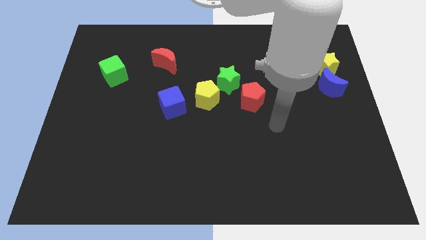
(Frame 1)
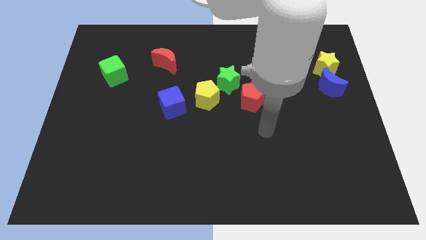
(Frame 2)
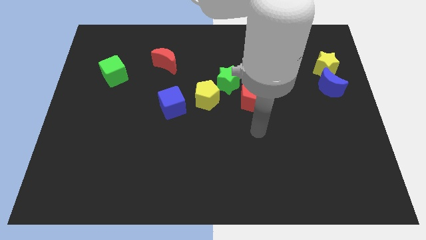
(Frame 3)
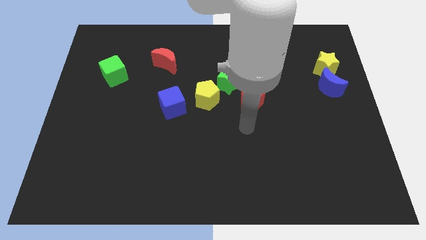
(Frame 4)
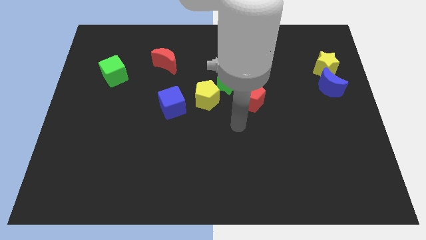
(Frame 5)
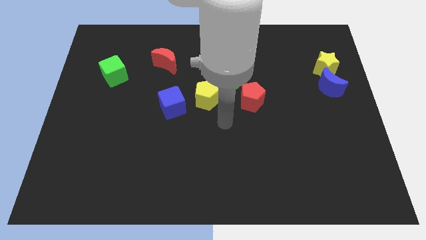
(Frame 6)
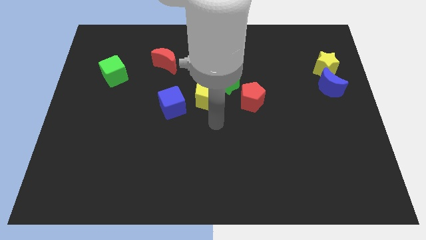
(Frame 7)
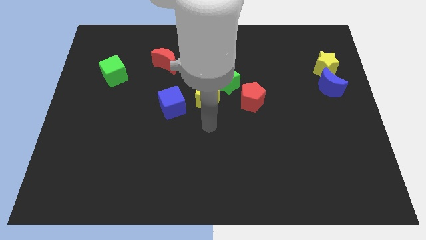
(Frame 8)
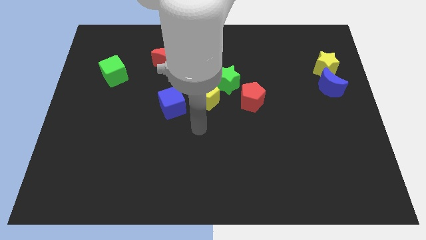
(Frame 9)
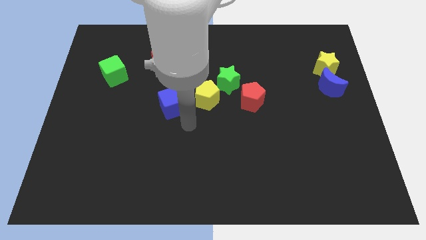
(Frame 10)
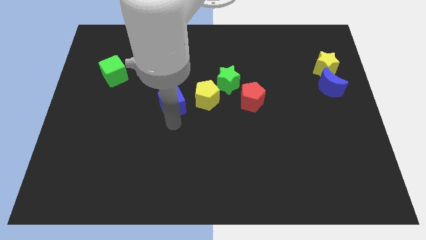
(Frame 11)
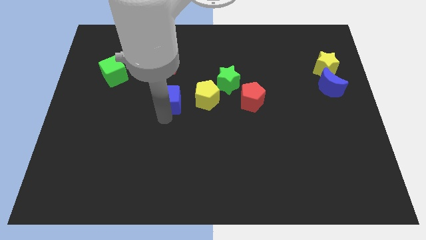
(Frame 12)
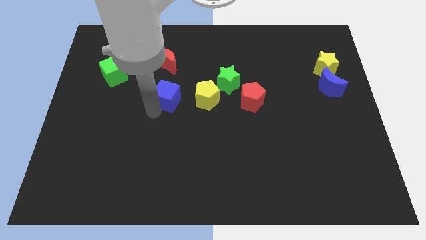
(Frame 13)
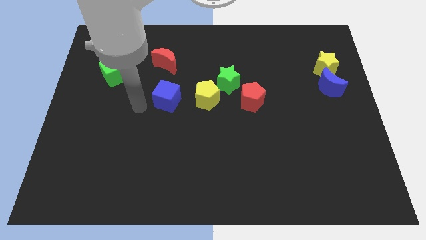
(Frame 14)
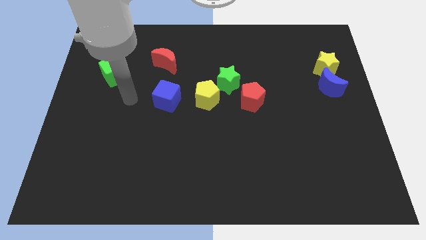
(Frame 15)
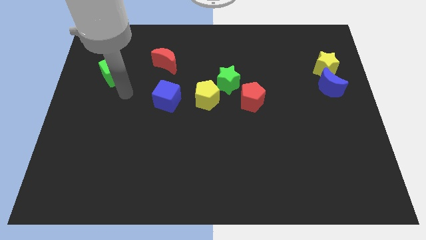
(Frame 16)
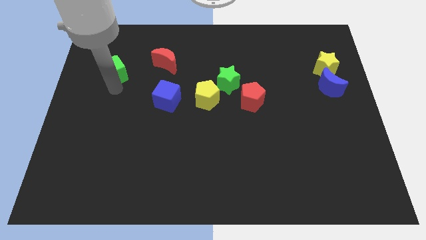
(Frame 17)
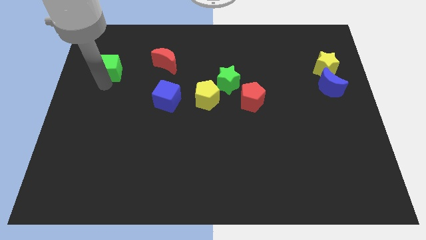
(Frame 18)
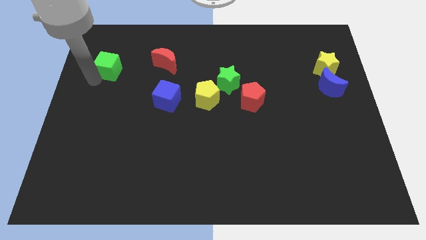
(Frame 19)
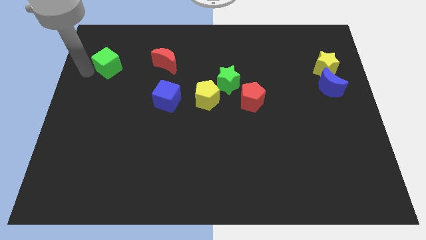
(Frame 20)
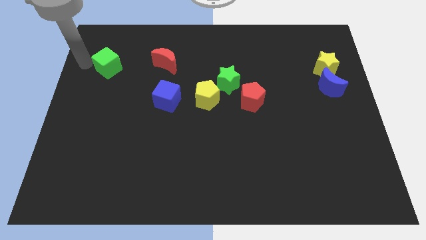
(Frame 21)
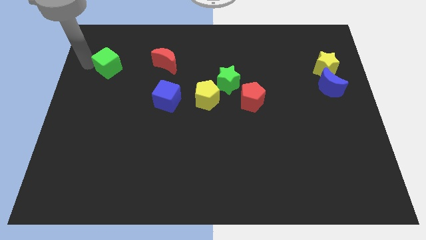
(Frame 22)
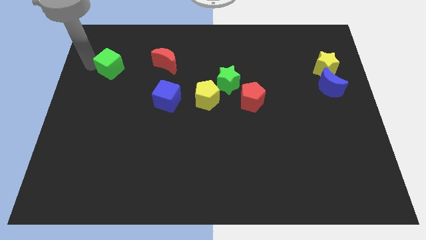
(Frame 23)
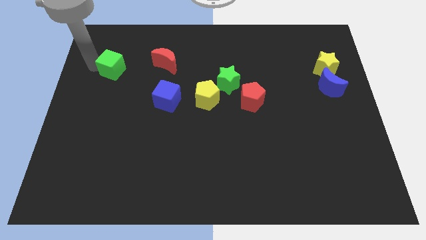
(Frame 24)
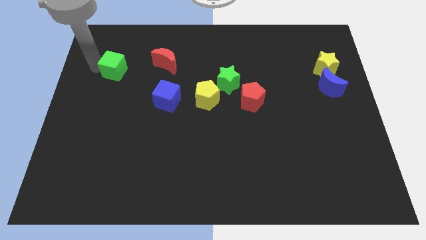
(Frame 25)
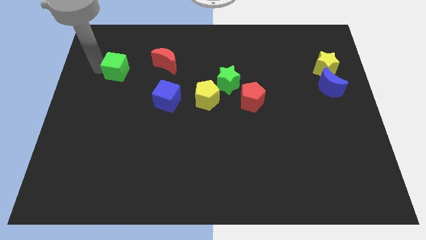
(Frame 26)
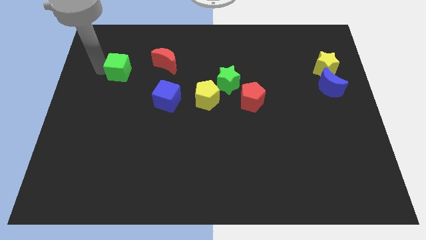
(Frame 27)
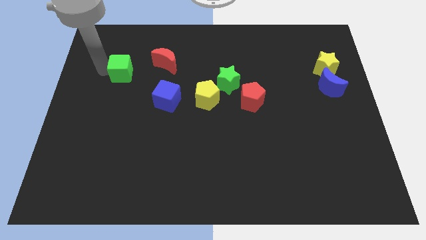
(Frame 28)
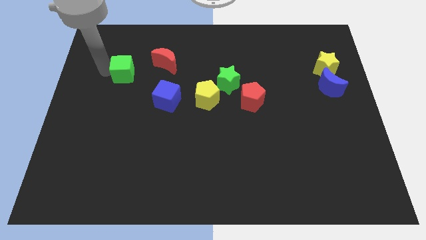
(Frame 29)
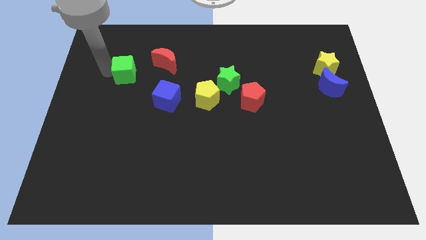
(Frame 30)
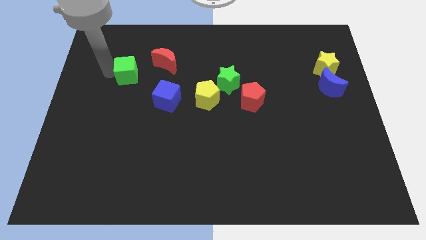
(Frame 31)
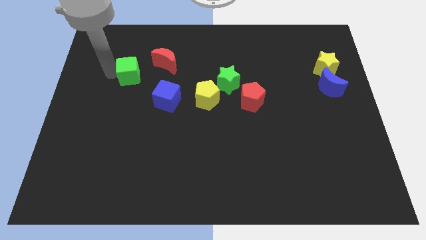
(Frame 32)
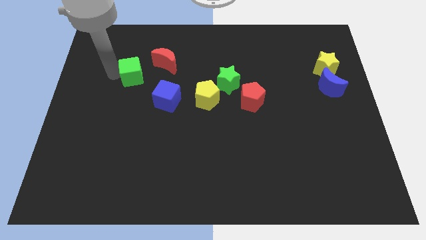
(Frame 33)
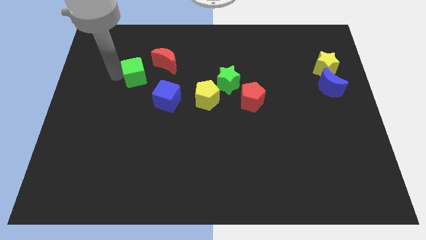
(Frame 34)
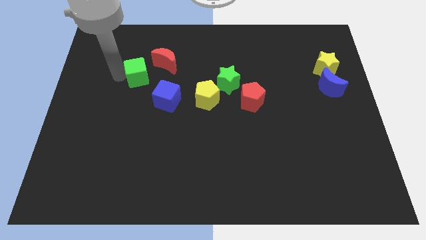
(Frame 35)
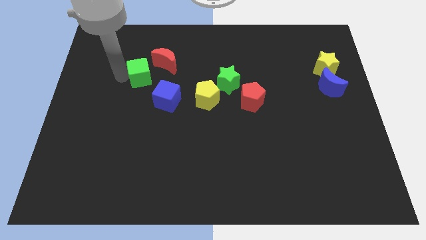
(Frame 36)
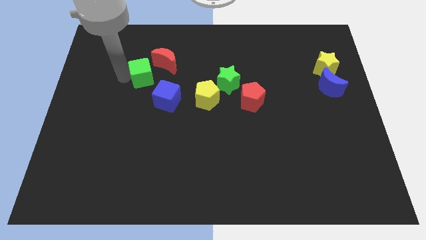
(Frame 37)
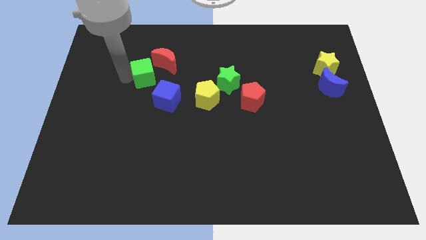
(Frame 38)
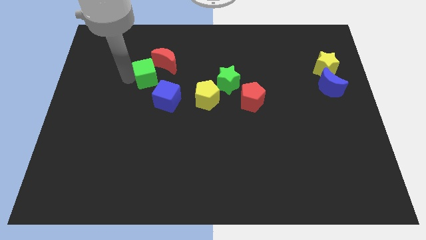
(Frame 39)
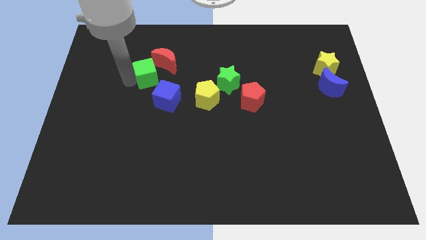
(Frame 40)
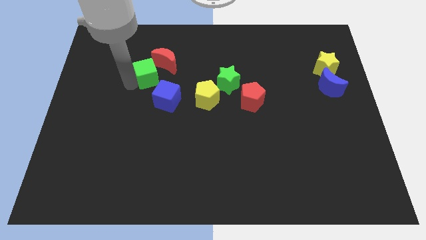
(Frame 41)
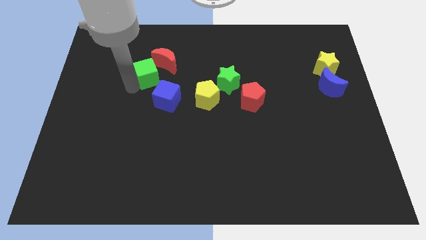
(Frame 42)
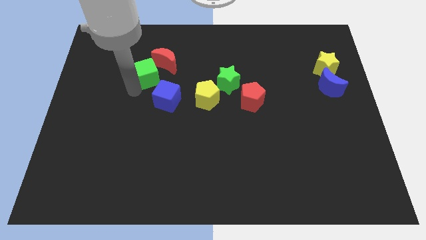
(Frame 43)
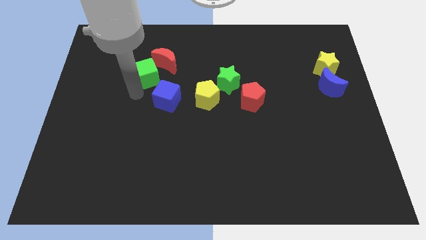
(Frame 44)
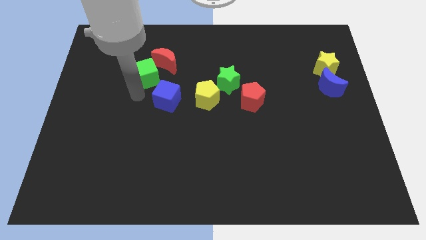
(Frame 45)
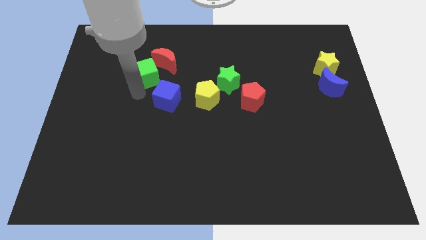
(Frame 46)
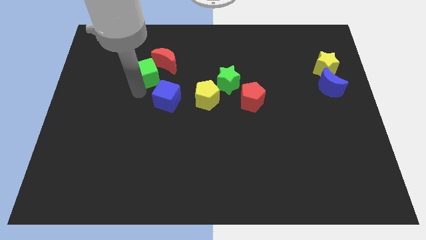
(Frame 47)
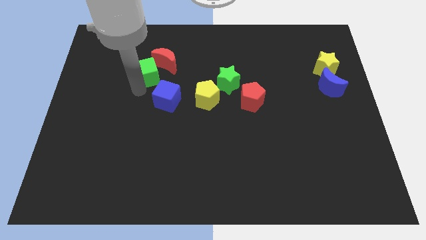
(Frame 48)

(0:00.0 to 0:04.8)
put the green cube towards the red moon

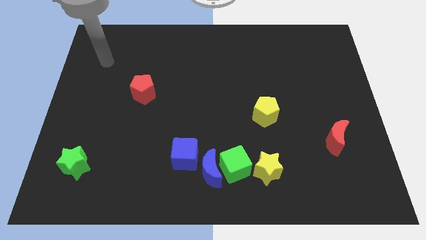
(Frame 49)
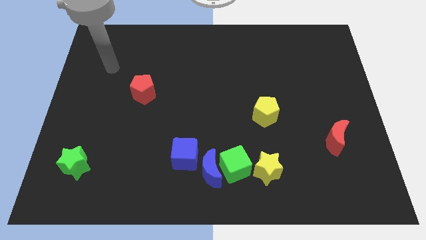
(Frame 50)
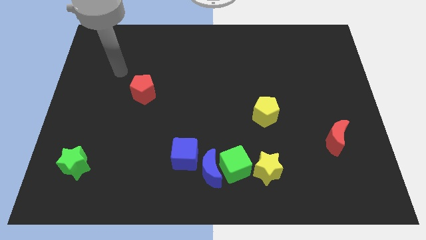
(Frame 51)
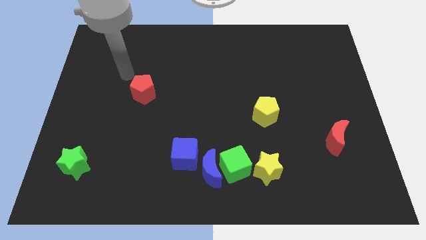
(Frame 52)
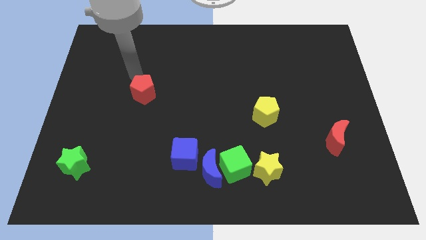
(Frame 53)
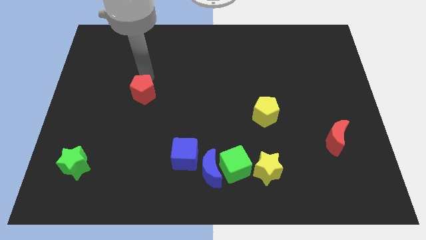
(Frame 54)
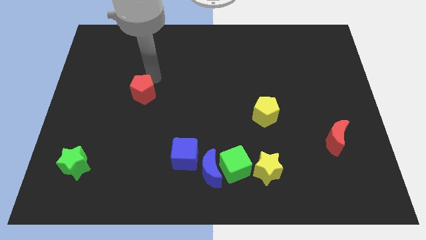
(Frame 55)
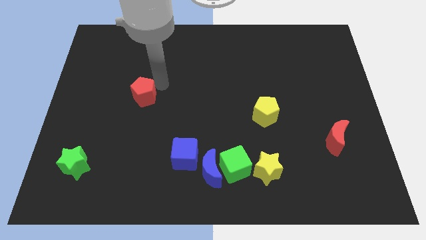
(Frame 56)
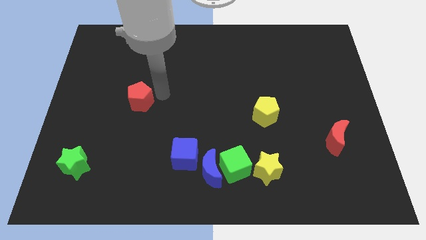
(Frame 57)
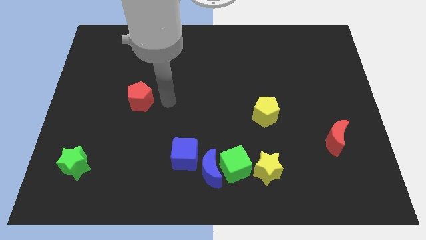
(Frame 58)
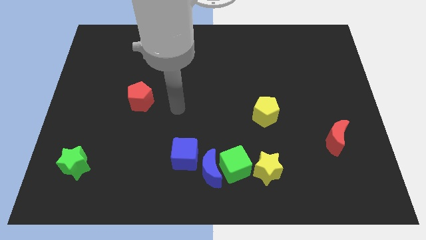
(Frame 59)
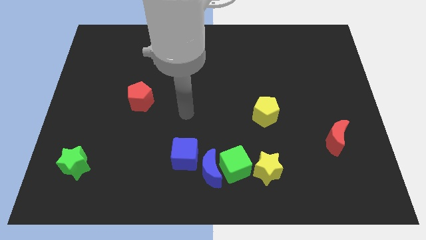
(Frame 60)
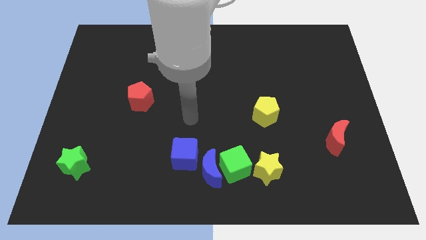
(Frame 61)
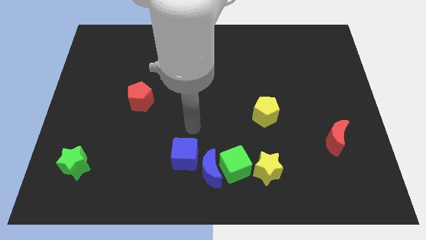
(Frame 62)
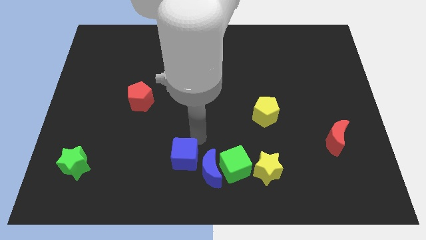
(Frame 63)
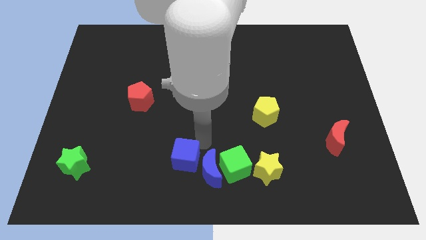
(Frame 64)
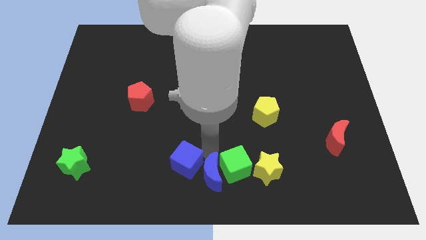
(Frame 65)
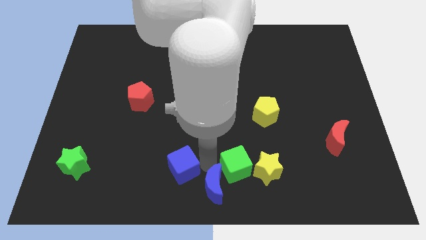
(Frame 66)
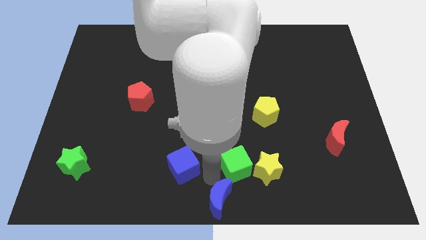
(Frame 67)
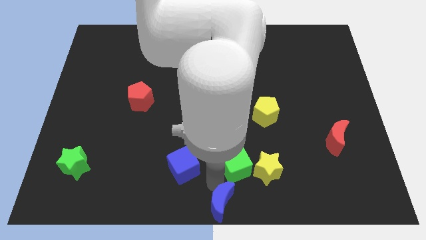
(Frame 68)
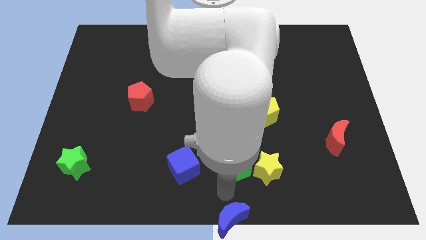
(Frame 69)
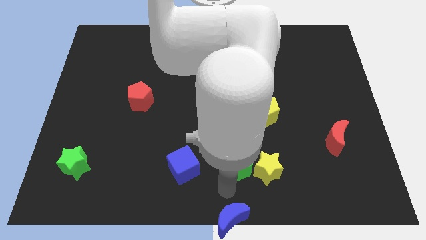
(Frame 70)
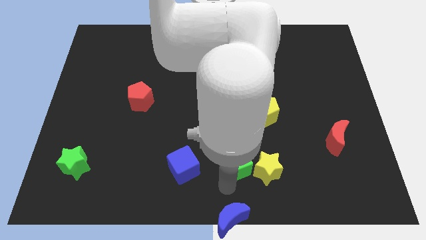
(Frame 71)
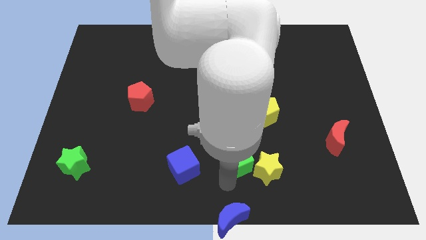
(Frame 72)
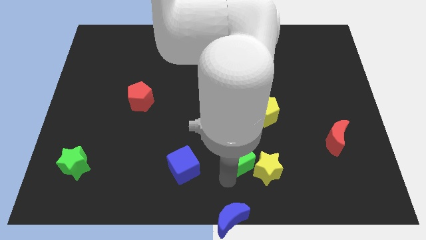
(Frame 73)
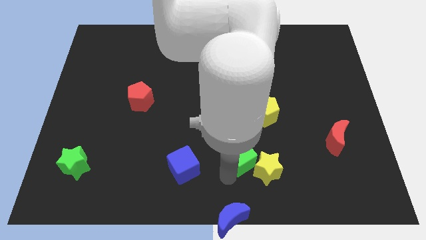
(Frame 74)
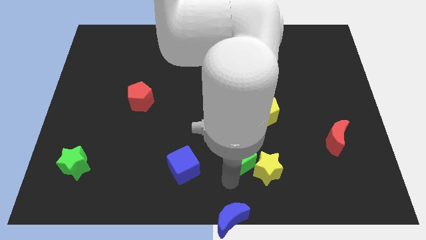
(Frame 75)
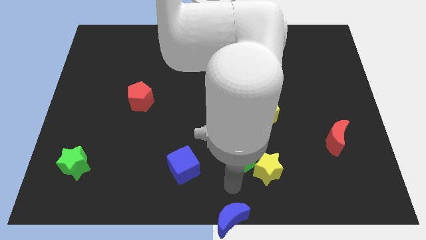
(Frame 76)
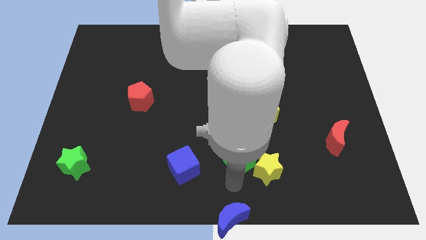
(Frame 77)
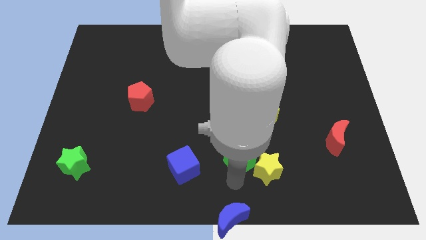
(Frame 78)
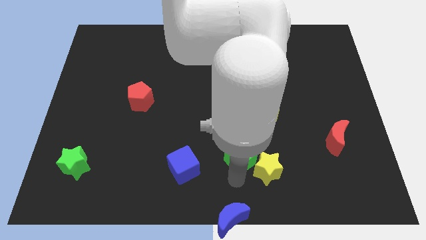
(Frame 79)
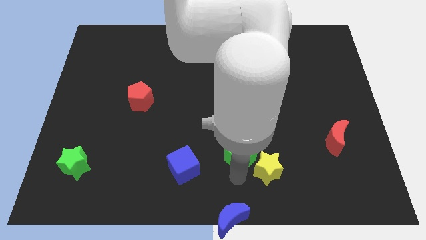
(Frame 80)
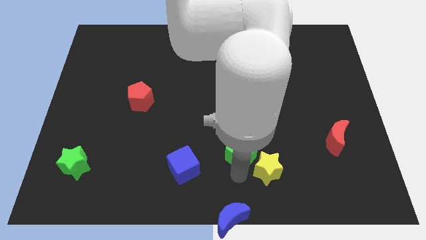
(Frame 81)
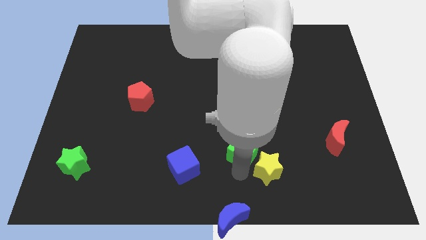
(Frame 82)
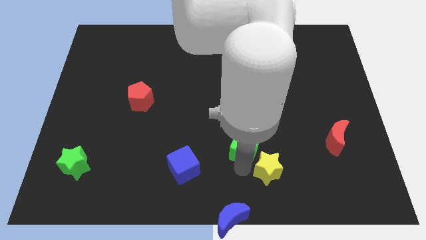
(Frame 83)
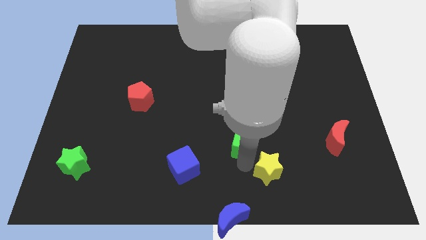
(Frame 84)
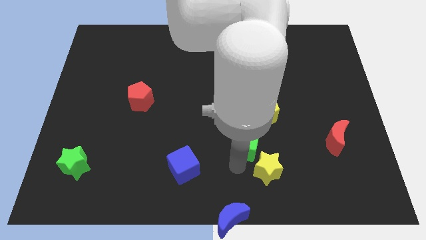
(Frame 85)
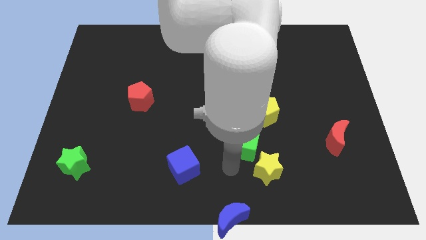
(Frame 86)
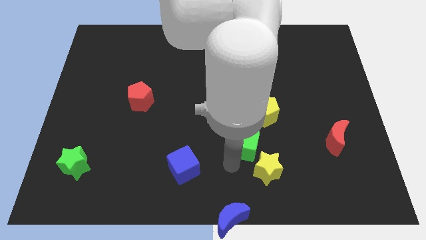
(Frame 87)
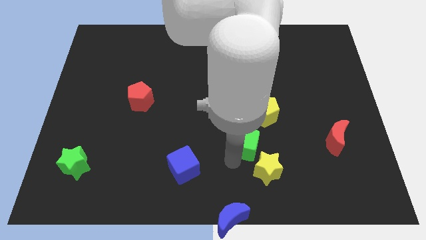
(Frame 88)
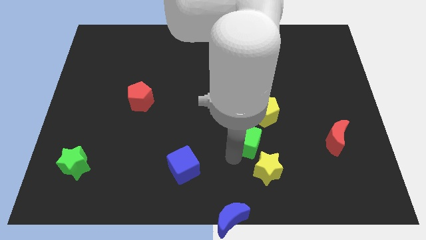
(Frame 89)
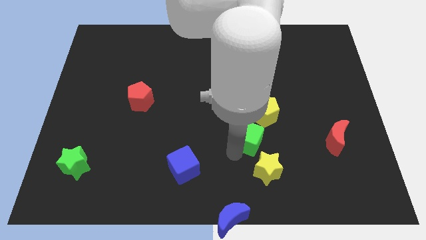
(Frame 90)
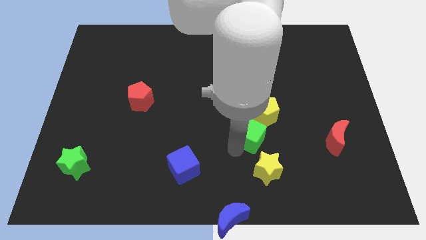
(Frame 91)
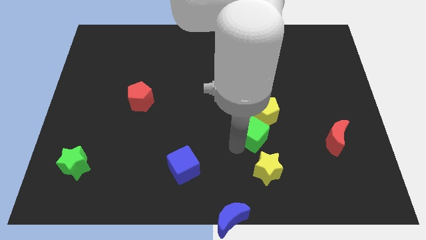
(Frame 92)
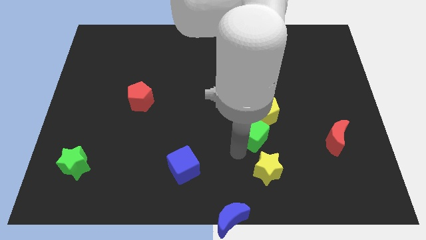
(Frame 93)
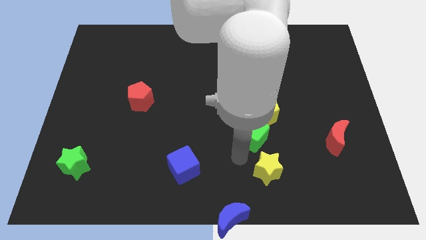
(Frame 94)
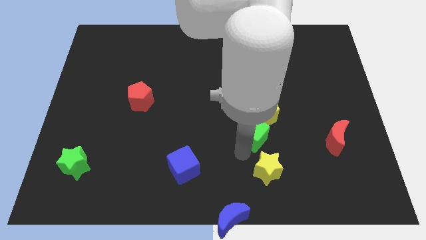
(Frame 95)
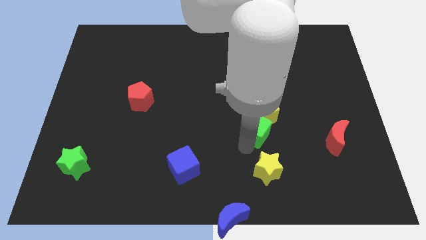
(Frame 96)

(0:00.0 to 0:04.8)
slide the green cube close to the yellow pentagon
